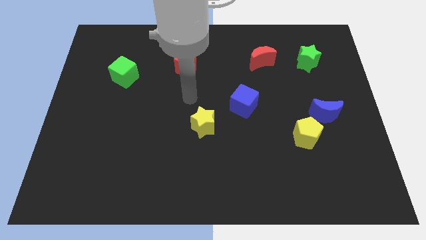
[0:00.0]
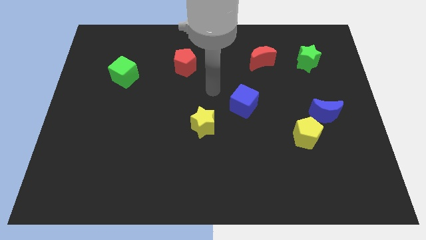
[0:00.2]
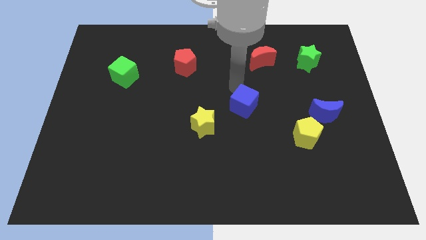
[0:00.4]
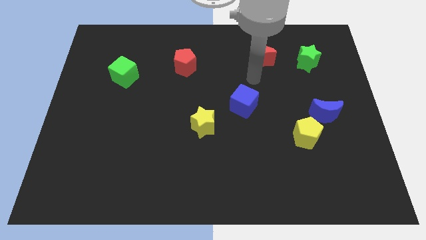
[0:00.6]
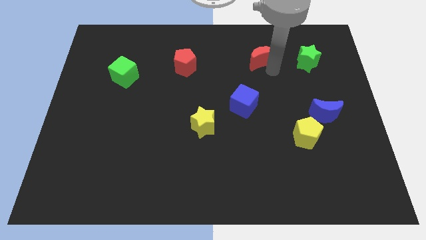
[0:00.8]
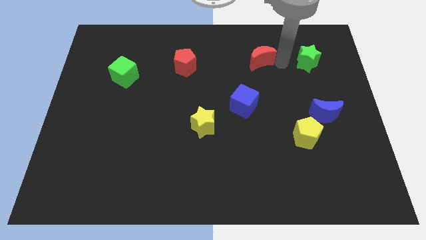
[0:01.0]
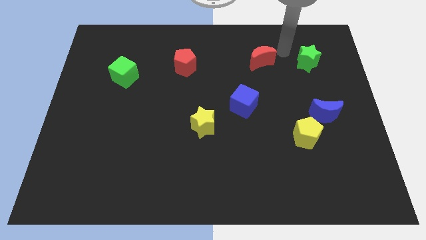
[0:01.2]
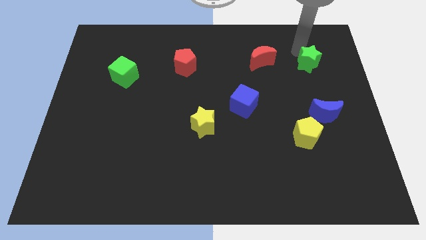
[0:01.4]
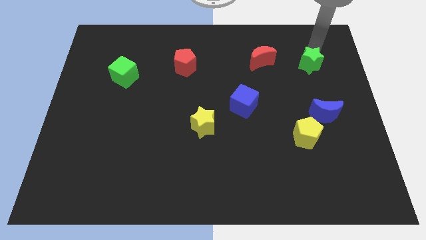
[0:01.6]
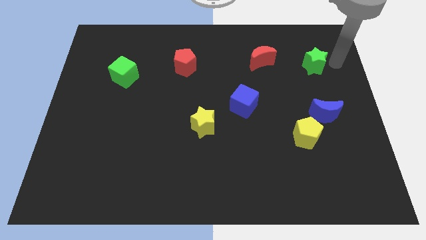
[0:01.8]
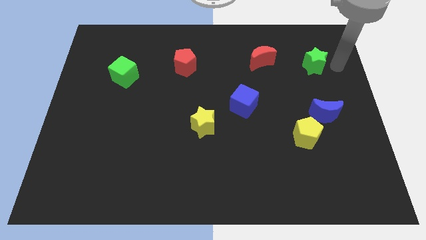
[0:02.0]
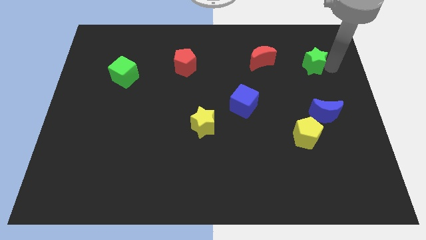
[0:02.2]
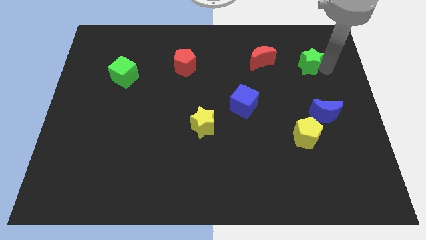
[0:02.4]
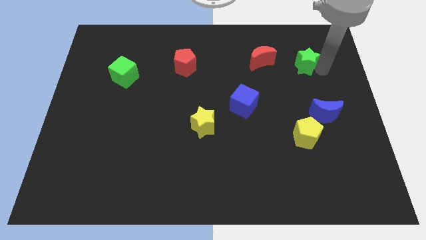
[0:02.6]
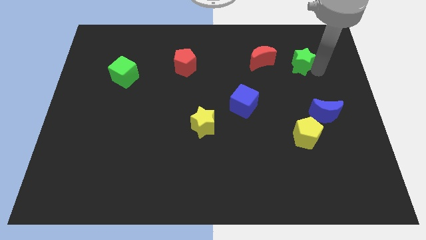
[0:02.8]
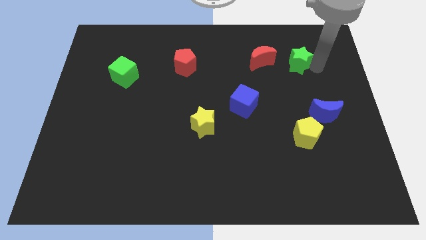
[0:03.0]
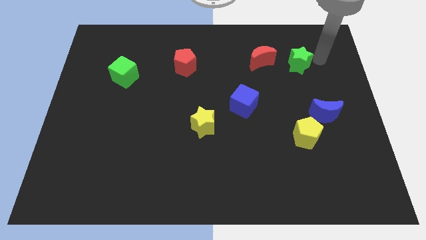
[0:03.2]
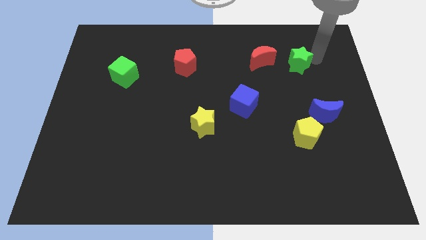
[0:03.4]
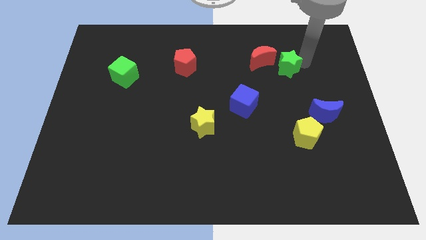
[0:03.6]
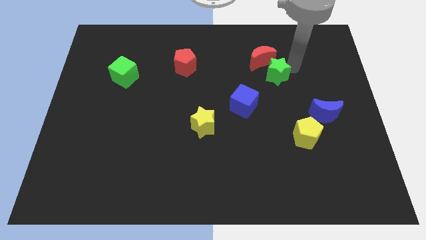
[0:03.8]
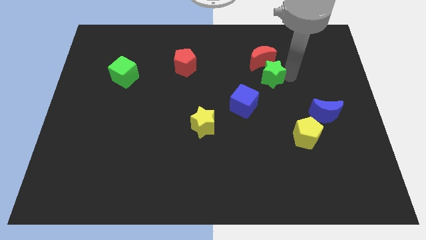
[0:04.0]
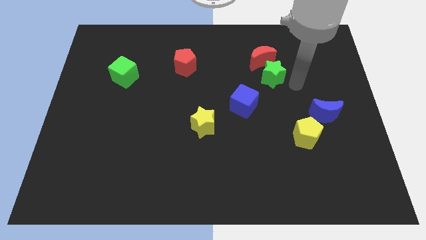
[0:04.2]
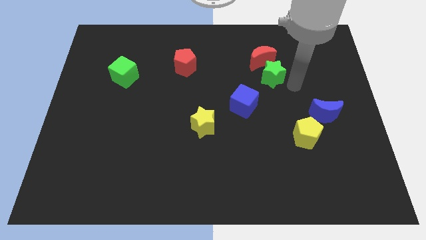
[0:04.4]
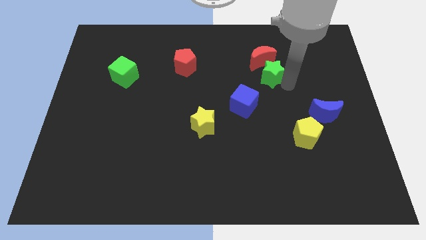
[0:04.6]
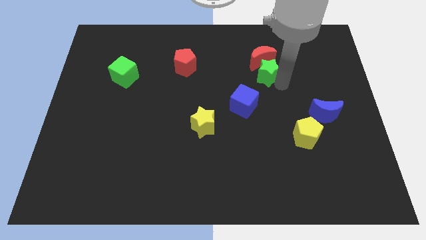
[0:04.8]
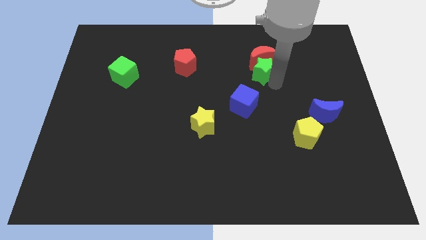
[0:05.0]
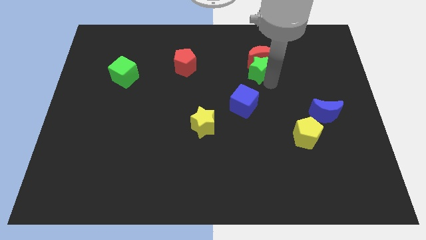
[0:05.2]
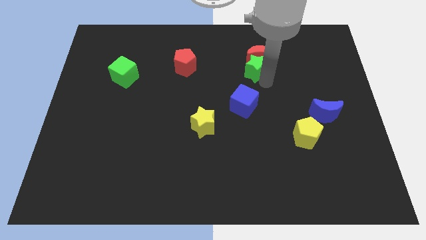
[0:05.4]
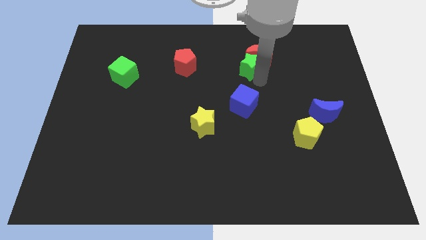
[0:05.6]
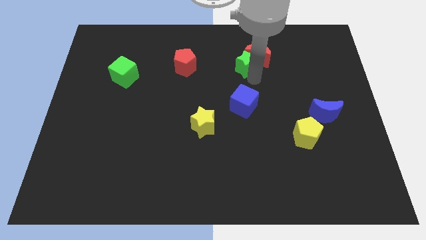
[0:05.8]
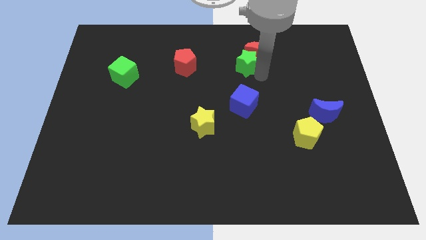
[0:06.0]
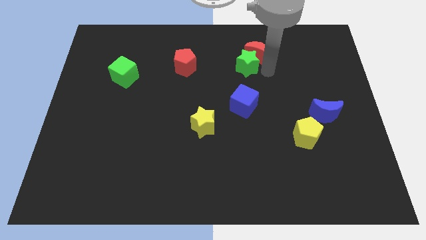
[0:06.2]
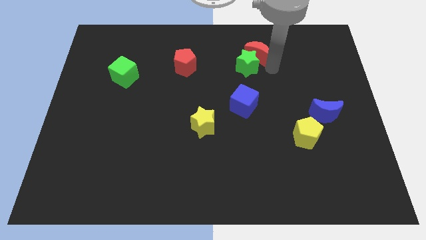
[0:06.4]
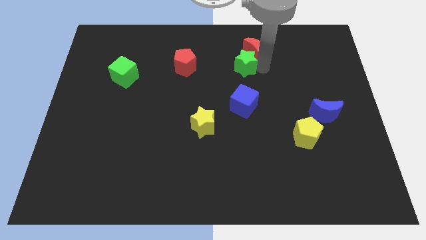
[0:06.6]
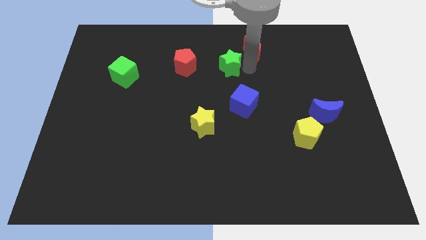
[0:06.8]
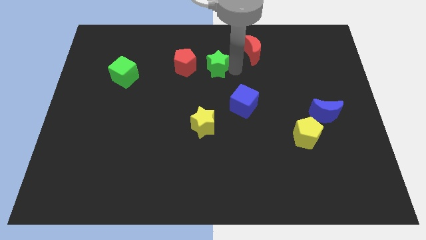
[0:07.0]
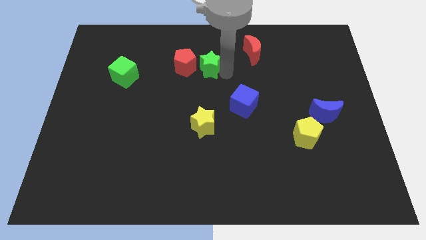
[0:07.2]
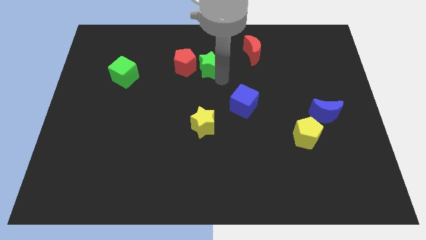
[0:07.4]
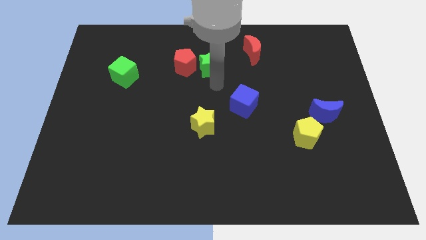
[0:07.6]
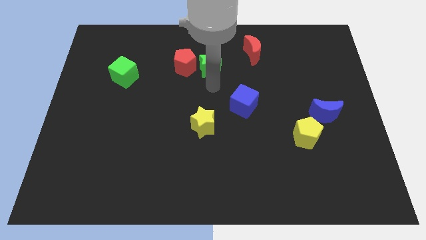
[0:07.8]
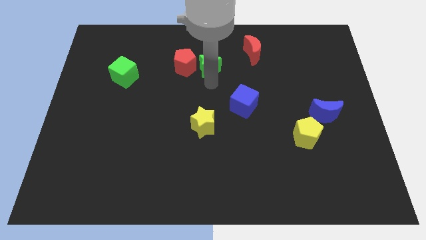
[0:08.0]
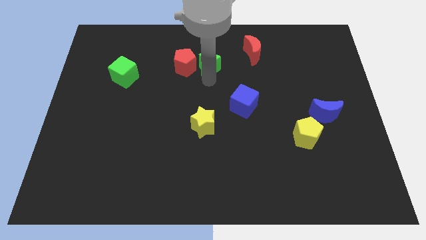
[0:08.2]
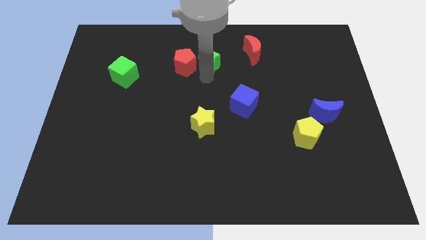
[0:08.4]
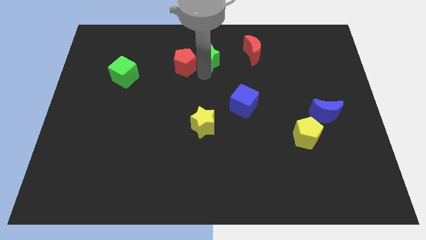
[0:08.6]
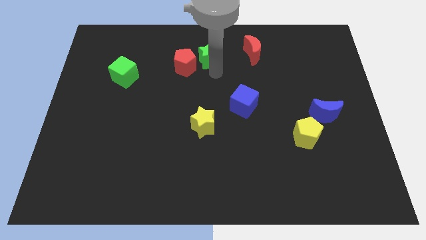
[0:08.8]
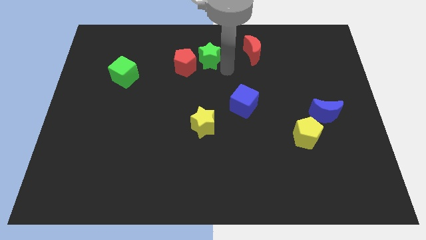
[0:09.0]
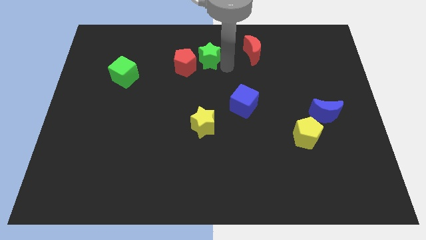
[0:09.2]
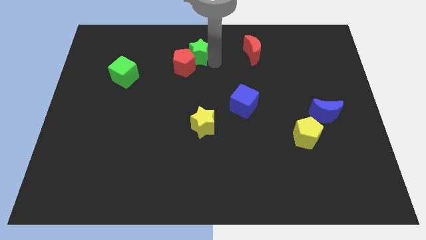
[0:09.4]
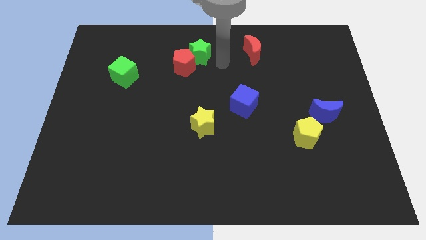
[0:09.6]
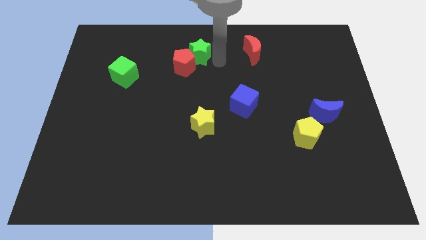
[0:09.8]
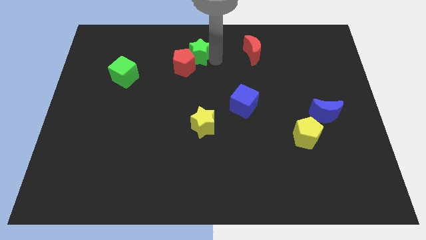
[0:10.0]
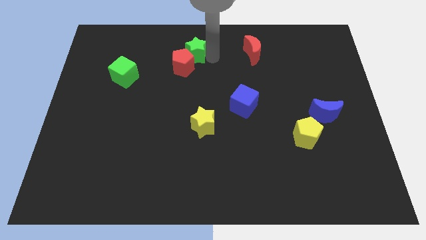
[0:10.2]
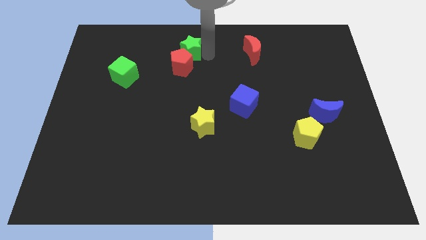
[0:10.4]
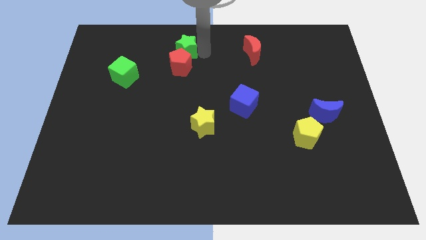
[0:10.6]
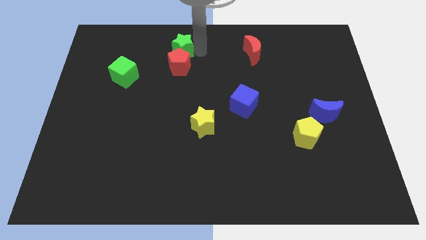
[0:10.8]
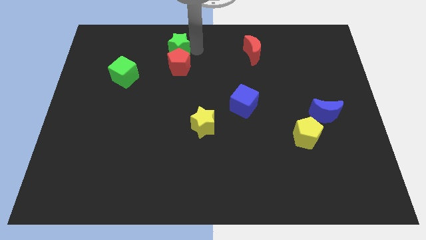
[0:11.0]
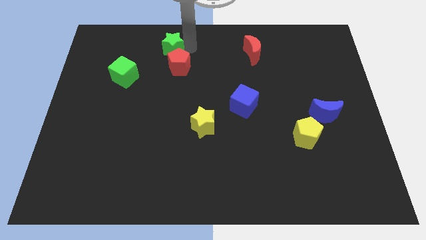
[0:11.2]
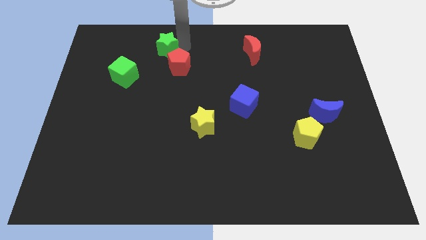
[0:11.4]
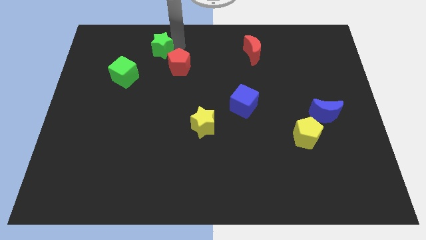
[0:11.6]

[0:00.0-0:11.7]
move the green star diagonally up and to the right of the green cube

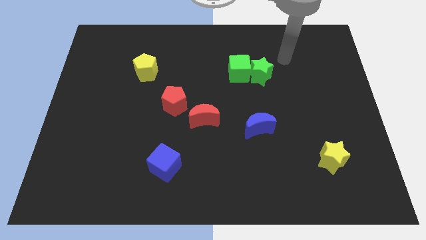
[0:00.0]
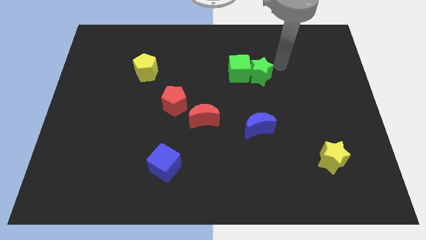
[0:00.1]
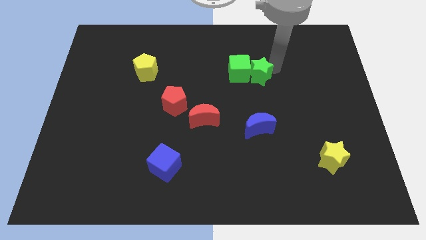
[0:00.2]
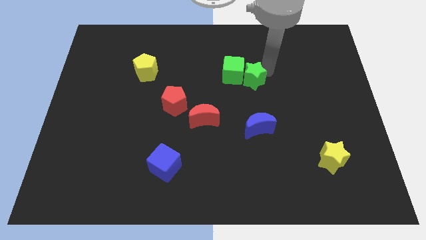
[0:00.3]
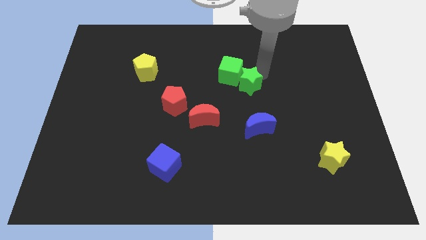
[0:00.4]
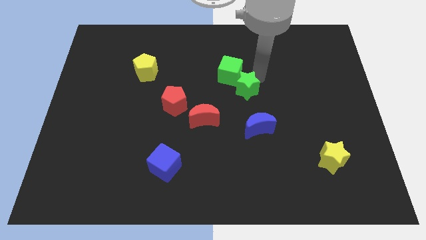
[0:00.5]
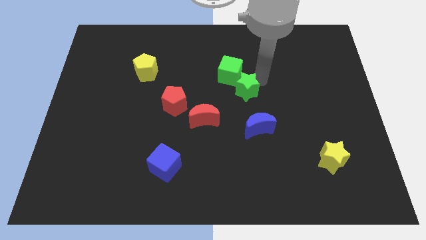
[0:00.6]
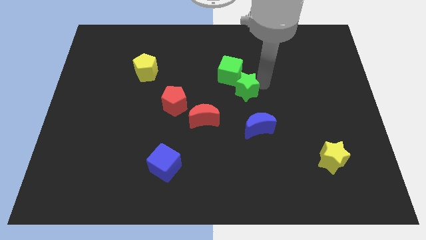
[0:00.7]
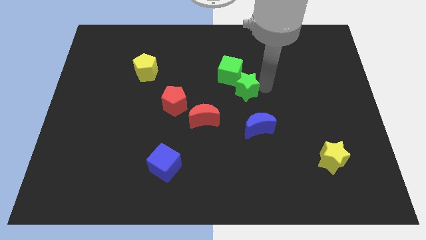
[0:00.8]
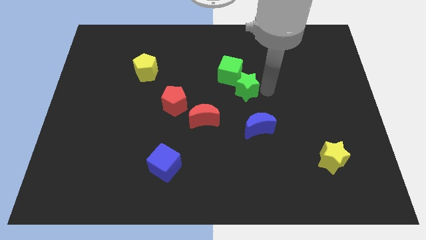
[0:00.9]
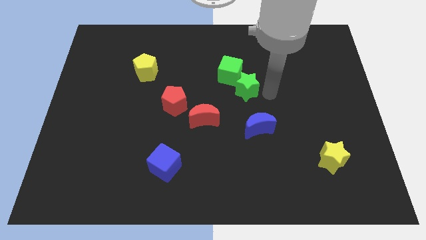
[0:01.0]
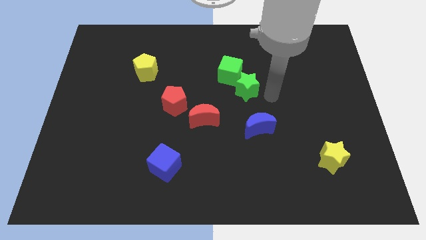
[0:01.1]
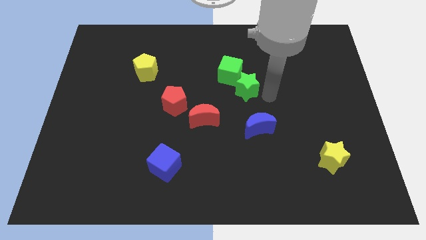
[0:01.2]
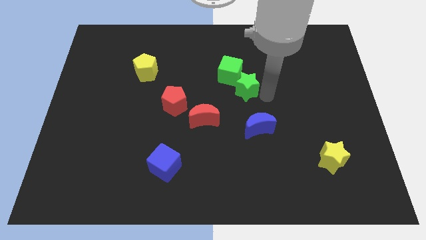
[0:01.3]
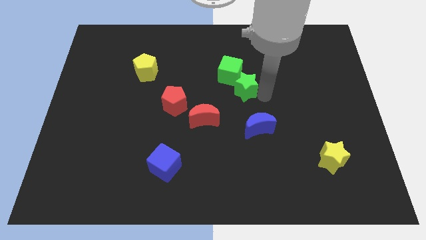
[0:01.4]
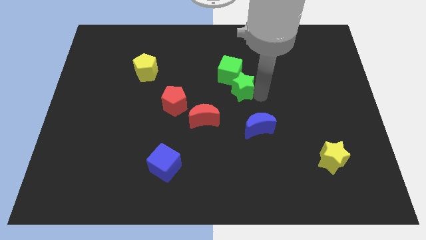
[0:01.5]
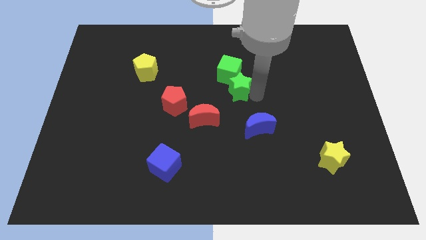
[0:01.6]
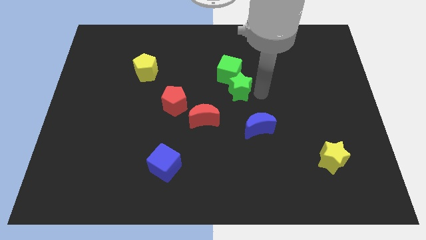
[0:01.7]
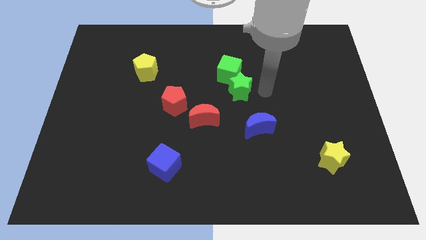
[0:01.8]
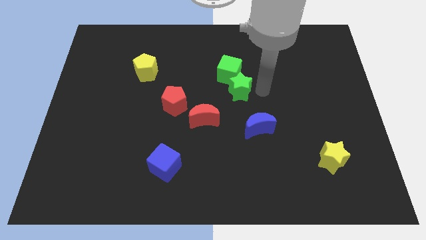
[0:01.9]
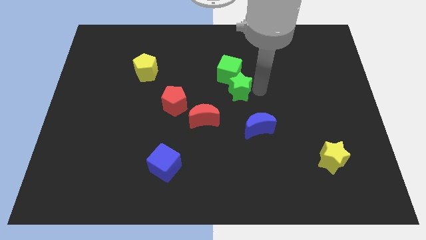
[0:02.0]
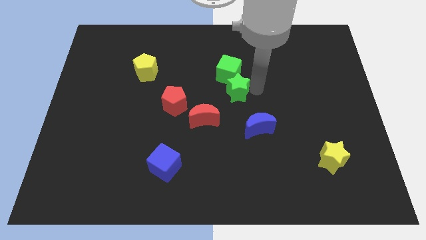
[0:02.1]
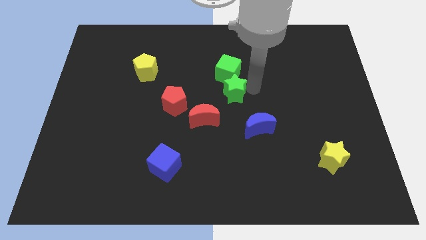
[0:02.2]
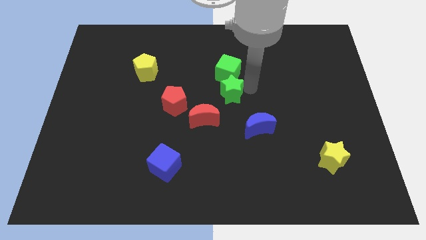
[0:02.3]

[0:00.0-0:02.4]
slide the green star diagonally down and to the left of the green cube
